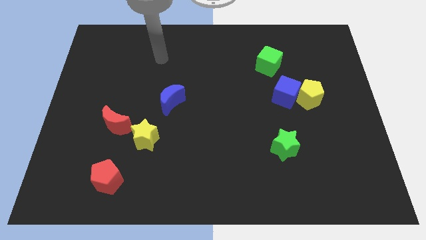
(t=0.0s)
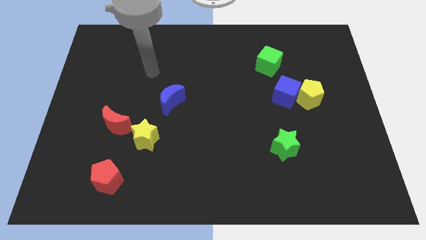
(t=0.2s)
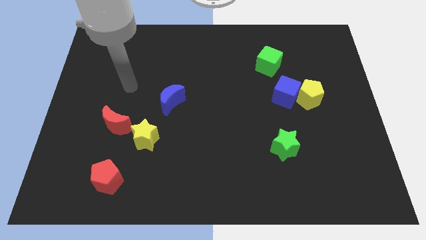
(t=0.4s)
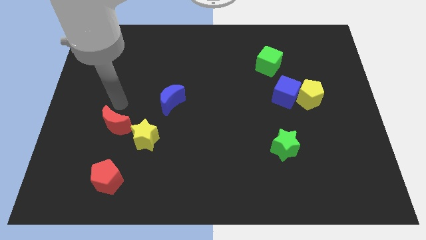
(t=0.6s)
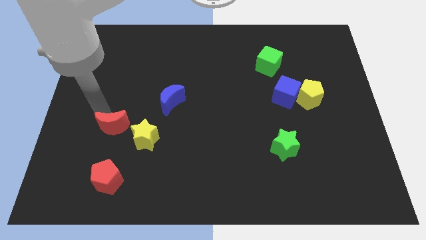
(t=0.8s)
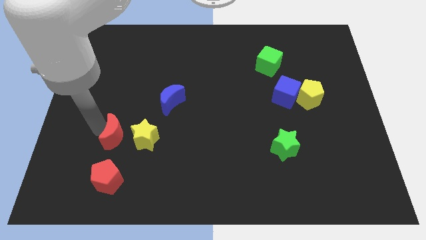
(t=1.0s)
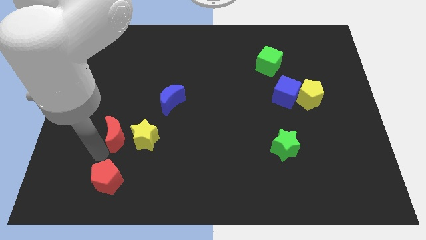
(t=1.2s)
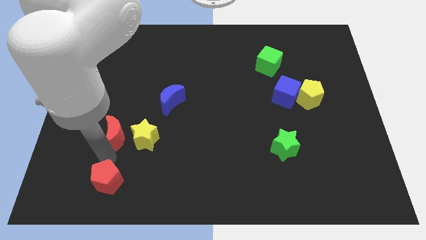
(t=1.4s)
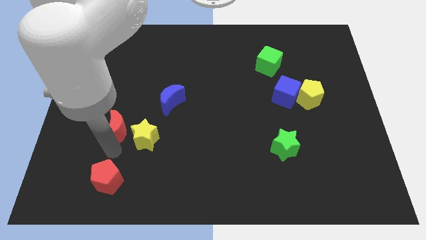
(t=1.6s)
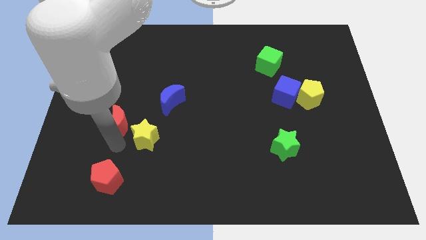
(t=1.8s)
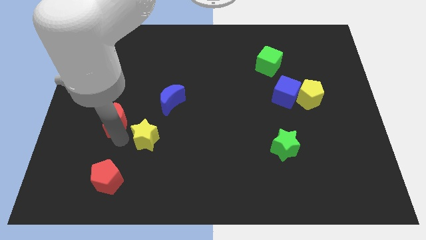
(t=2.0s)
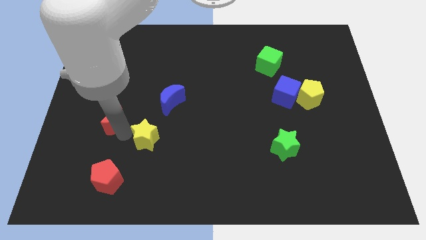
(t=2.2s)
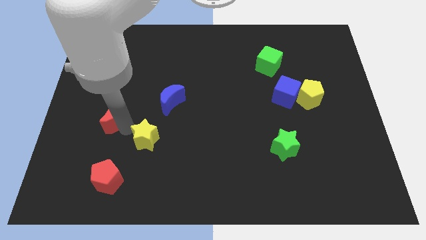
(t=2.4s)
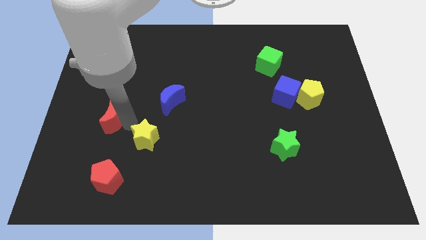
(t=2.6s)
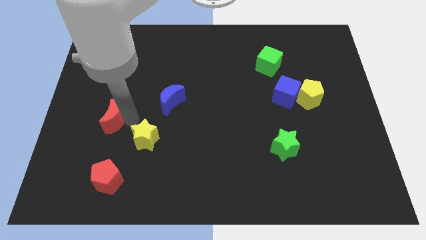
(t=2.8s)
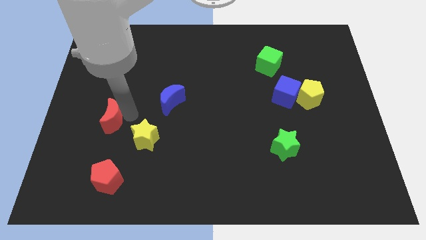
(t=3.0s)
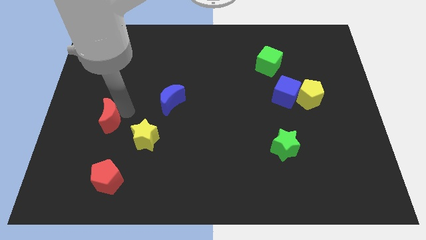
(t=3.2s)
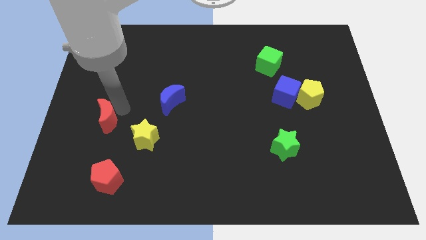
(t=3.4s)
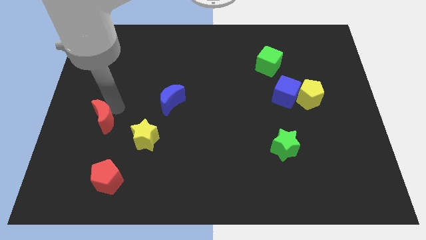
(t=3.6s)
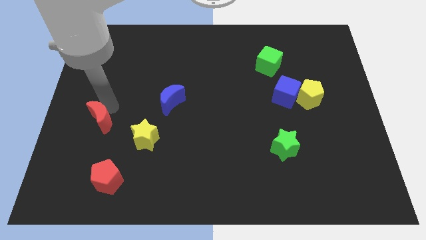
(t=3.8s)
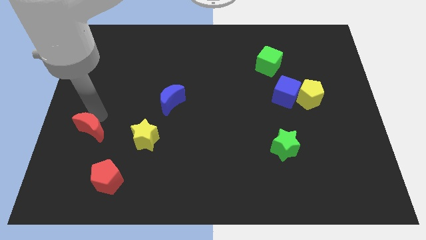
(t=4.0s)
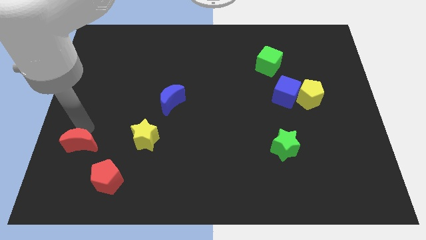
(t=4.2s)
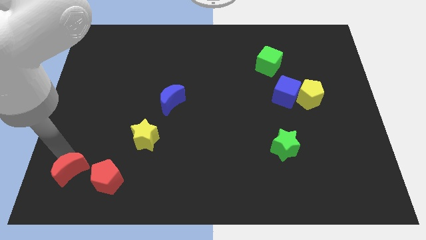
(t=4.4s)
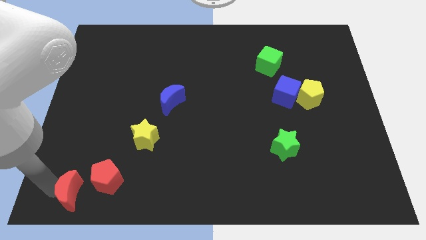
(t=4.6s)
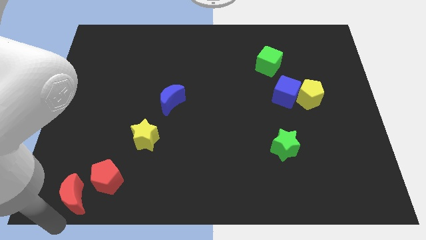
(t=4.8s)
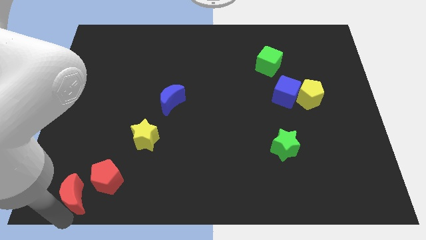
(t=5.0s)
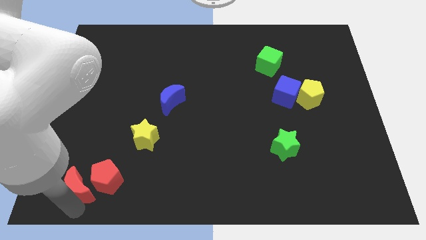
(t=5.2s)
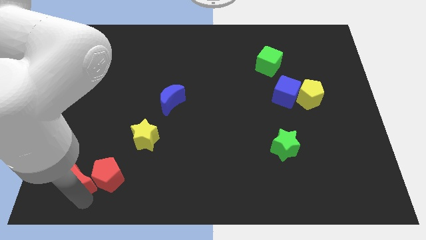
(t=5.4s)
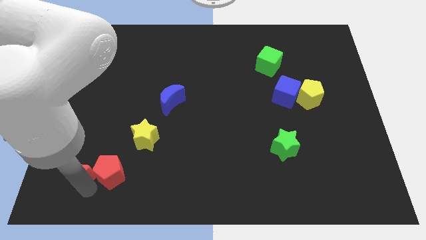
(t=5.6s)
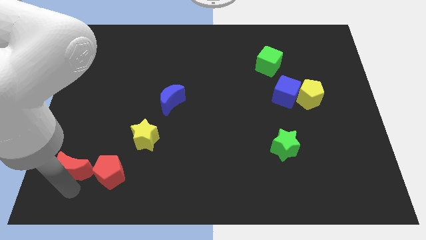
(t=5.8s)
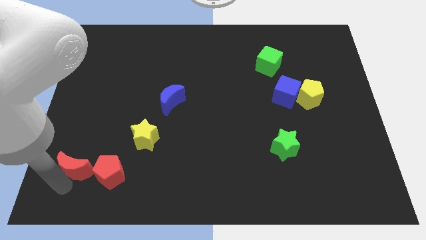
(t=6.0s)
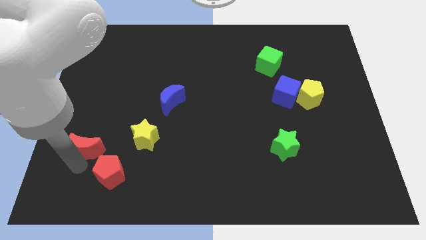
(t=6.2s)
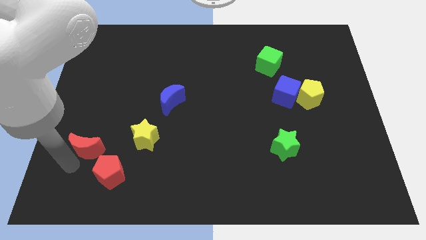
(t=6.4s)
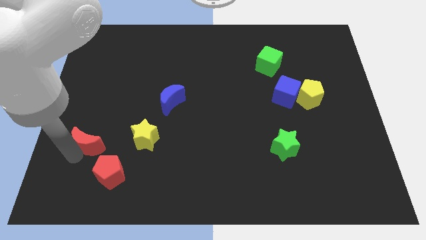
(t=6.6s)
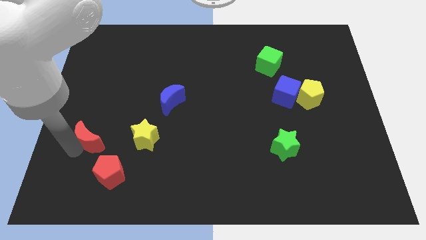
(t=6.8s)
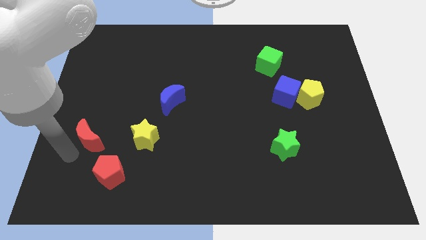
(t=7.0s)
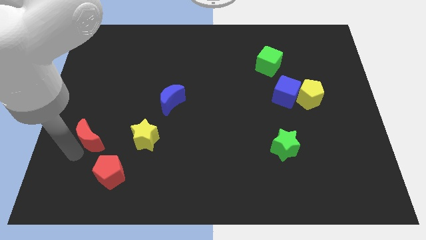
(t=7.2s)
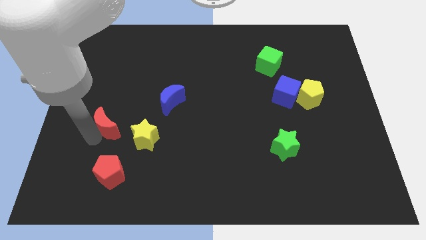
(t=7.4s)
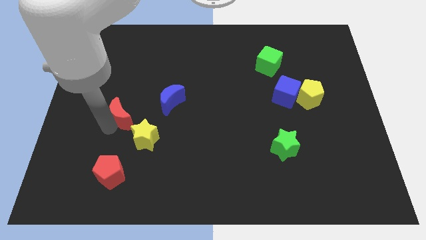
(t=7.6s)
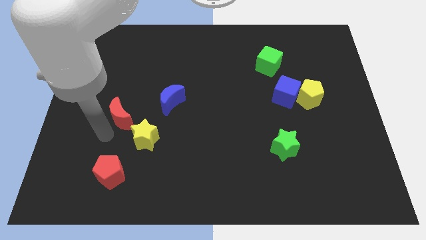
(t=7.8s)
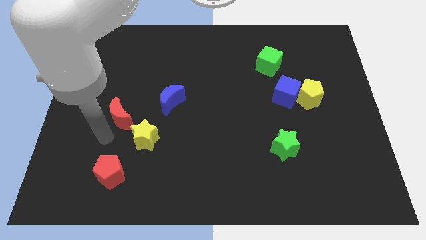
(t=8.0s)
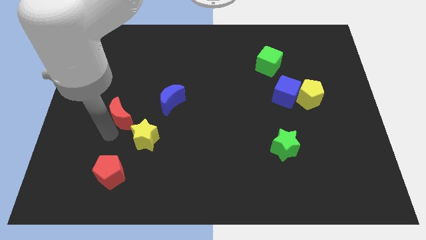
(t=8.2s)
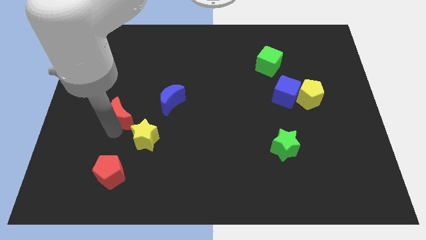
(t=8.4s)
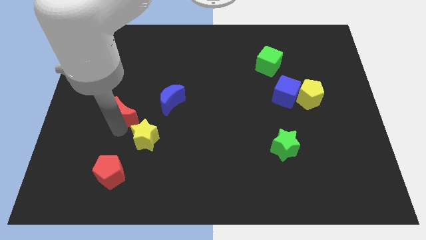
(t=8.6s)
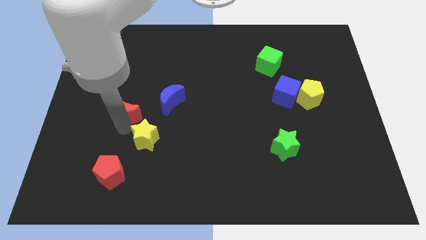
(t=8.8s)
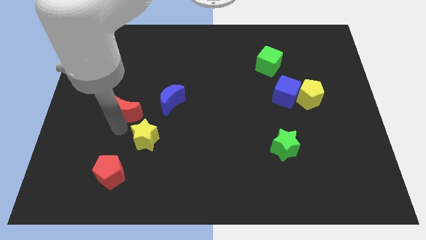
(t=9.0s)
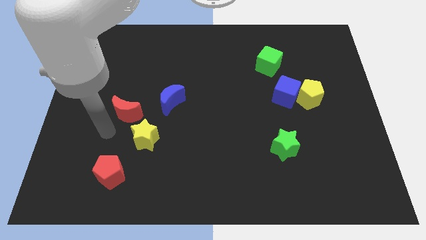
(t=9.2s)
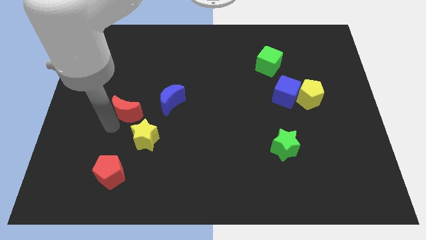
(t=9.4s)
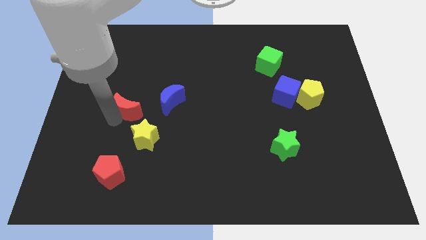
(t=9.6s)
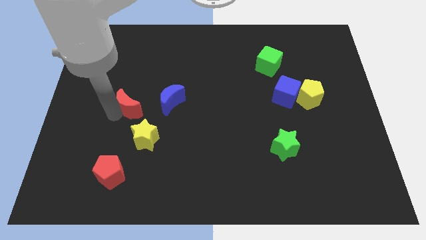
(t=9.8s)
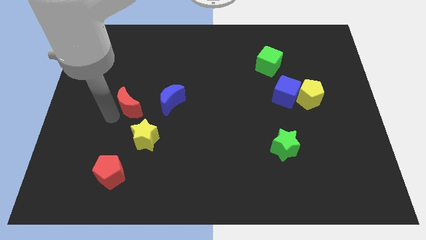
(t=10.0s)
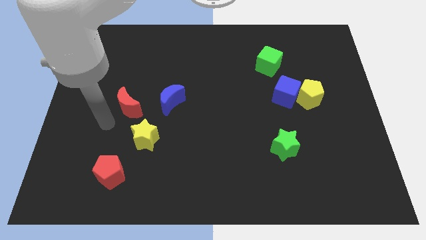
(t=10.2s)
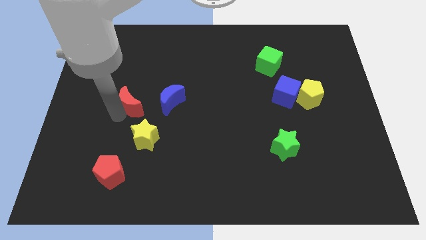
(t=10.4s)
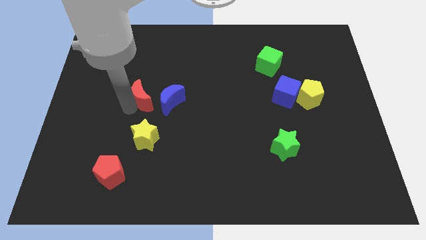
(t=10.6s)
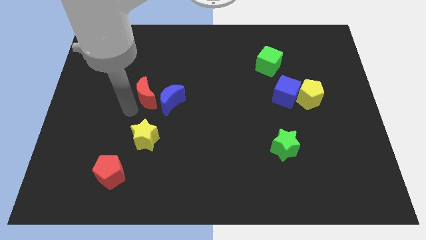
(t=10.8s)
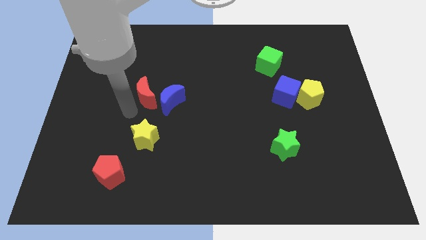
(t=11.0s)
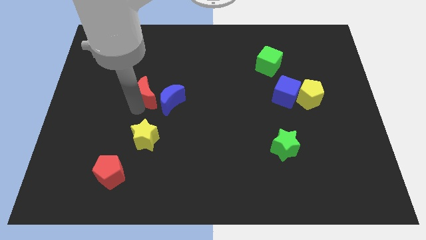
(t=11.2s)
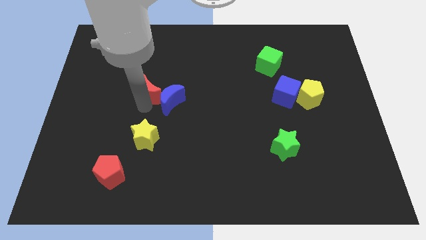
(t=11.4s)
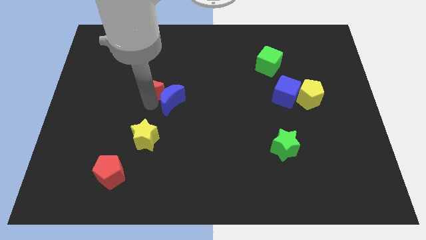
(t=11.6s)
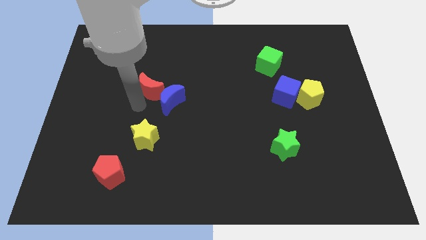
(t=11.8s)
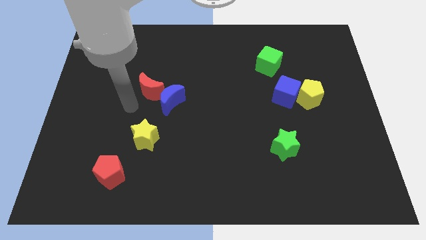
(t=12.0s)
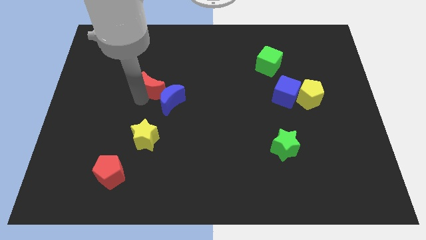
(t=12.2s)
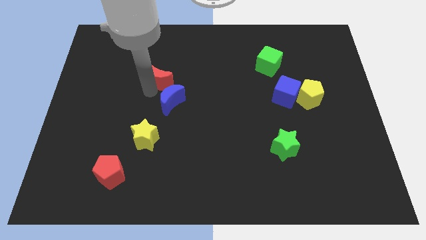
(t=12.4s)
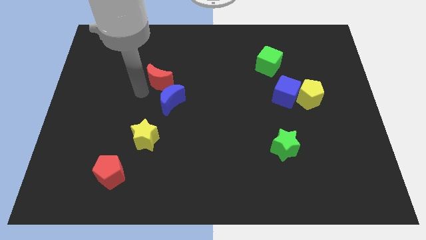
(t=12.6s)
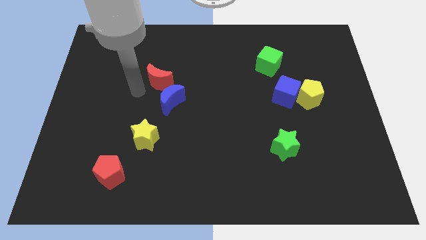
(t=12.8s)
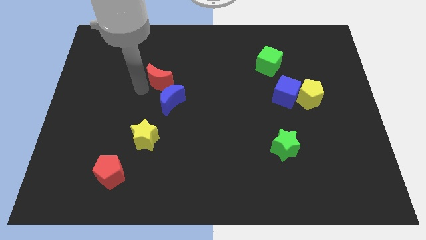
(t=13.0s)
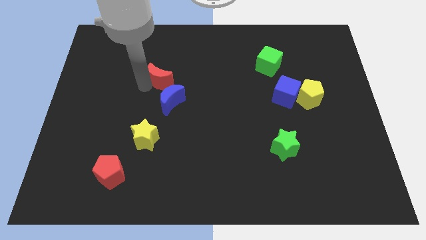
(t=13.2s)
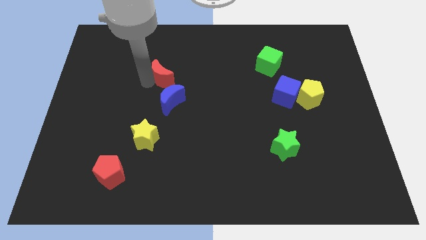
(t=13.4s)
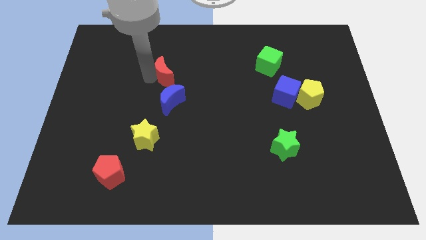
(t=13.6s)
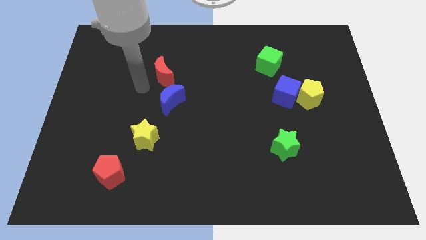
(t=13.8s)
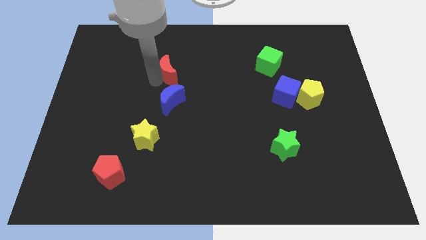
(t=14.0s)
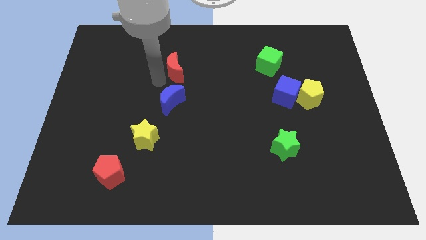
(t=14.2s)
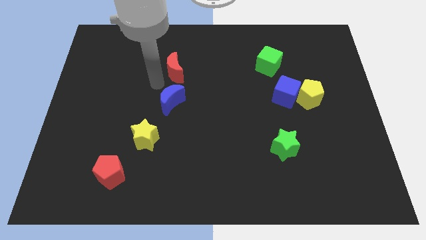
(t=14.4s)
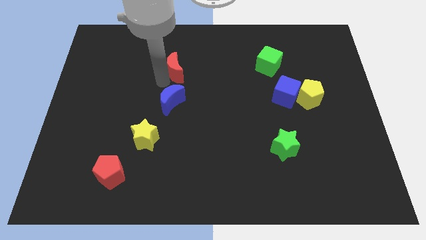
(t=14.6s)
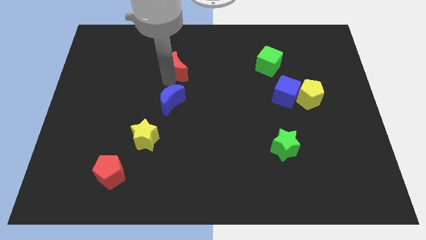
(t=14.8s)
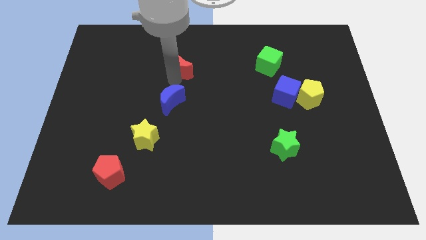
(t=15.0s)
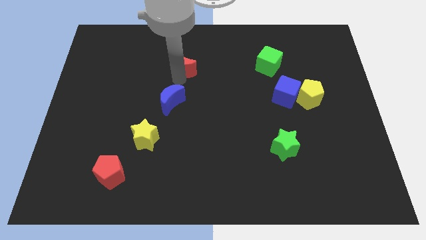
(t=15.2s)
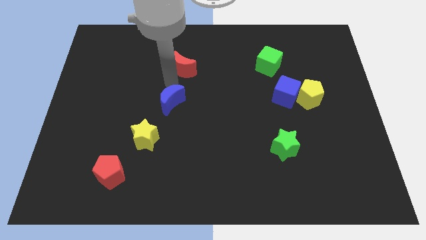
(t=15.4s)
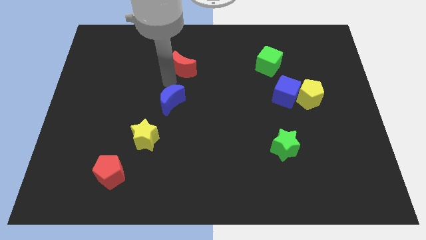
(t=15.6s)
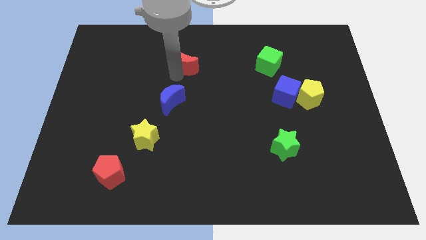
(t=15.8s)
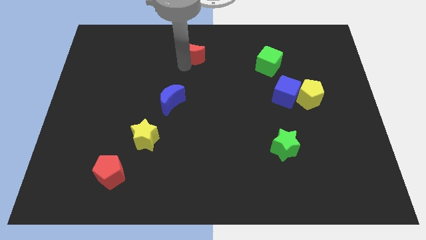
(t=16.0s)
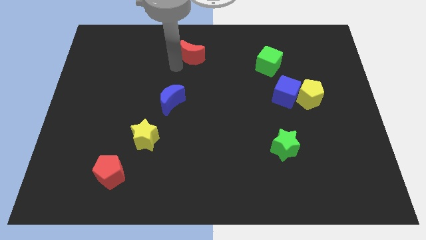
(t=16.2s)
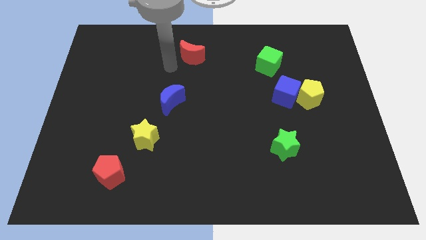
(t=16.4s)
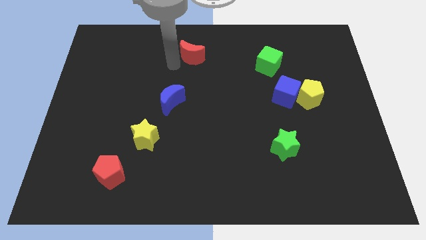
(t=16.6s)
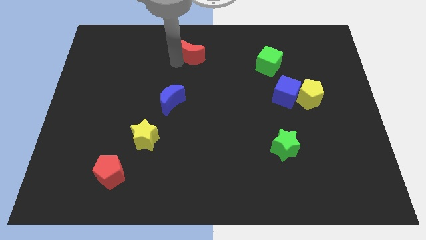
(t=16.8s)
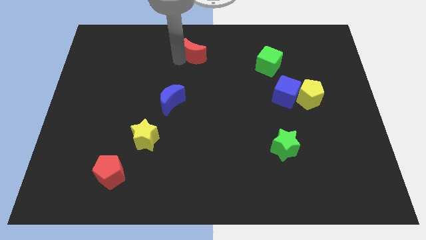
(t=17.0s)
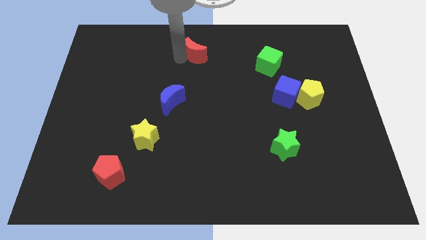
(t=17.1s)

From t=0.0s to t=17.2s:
put the red moon to the top
